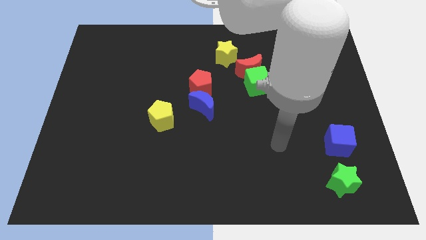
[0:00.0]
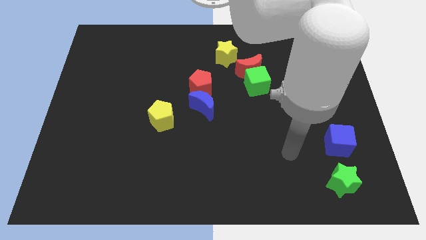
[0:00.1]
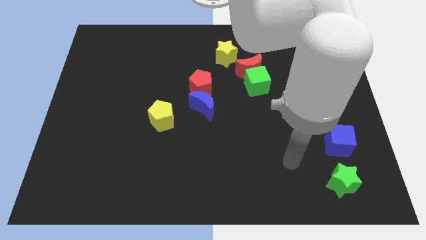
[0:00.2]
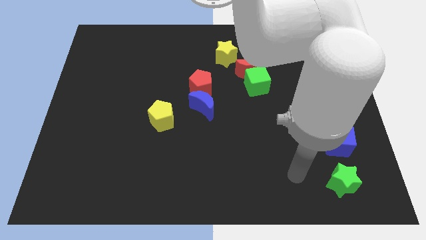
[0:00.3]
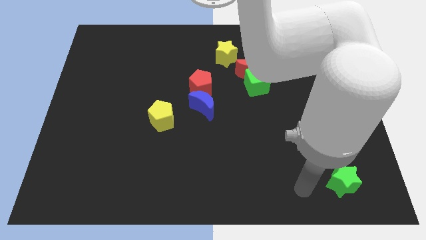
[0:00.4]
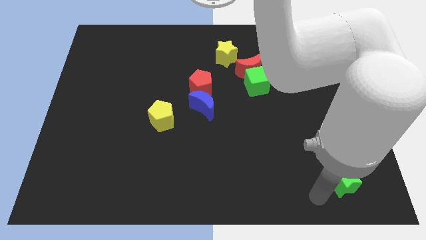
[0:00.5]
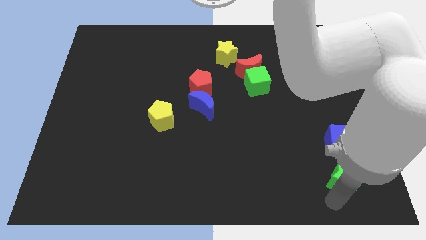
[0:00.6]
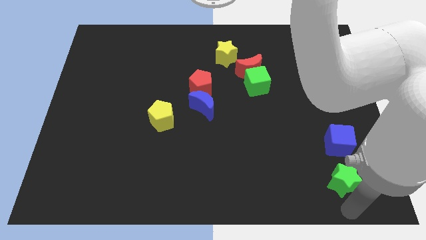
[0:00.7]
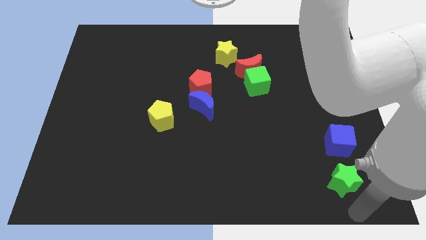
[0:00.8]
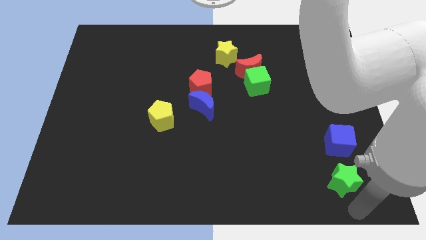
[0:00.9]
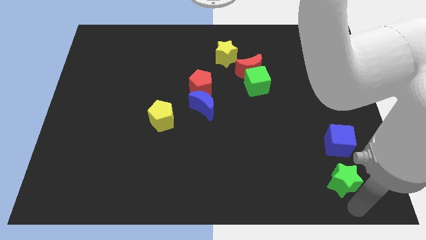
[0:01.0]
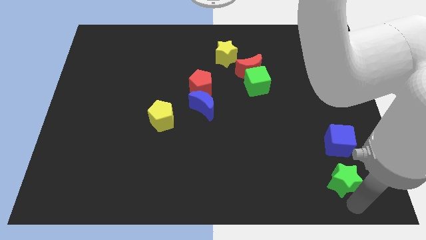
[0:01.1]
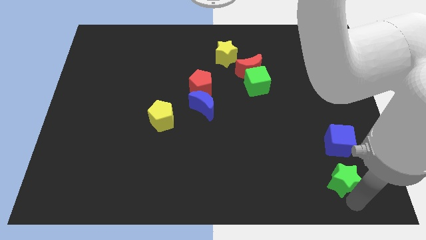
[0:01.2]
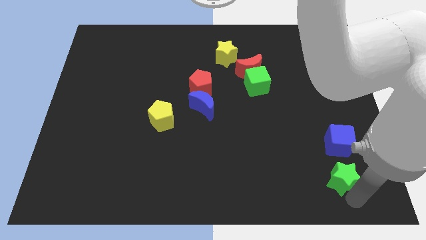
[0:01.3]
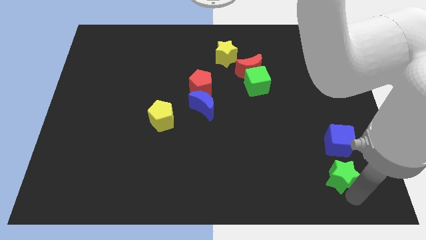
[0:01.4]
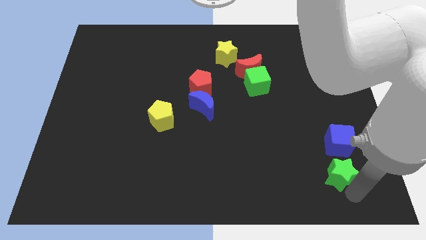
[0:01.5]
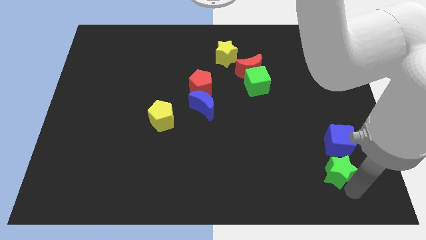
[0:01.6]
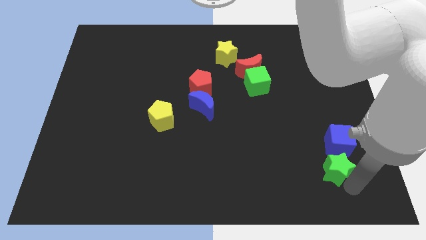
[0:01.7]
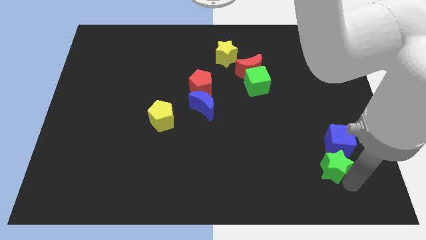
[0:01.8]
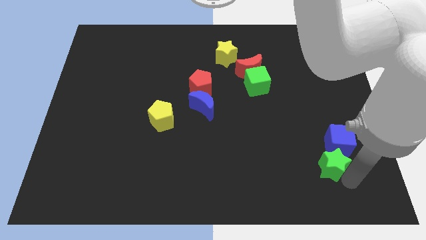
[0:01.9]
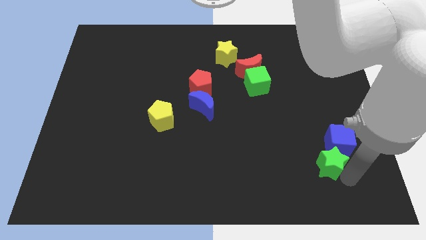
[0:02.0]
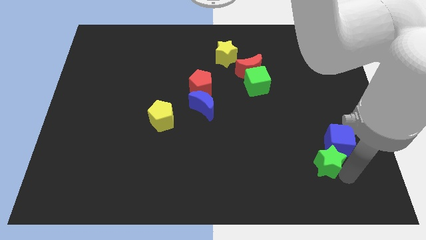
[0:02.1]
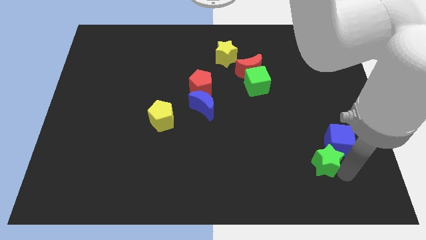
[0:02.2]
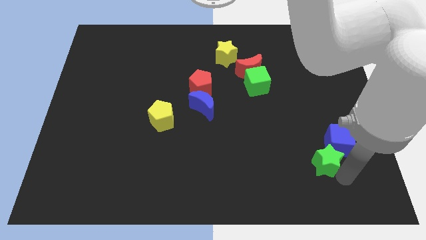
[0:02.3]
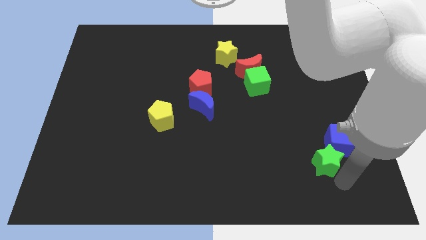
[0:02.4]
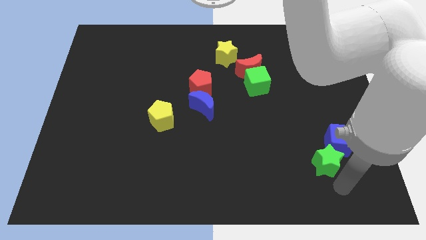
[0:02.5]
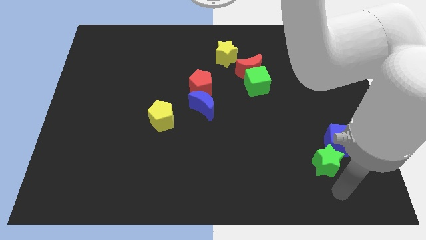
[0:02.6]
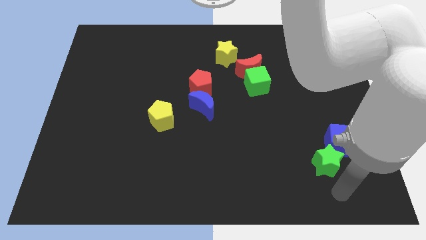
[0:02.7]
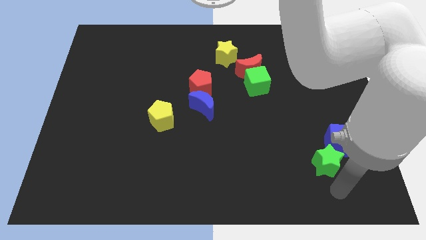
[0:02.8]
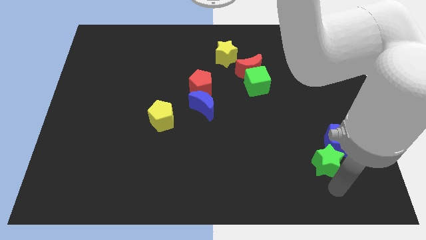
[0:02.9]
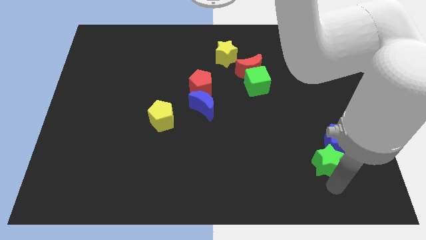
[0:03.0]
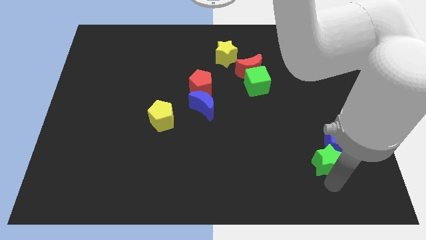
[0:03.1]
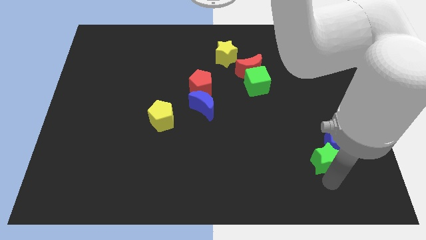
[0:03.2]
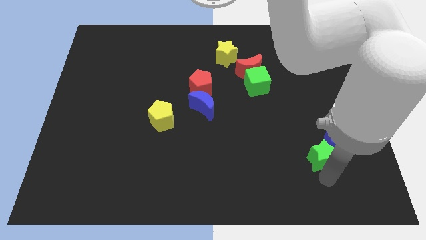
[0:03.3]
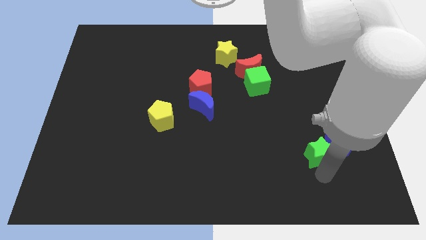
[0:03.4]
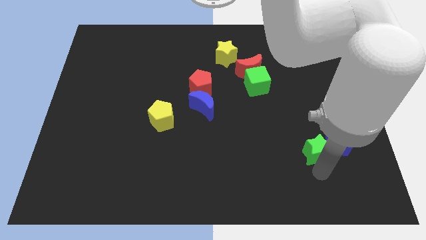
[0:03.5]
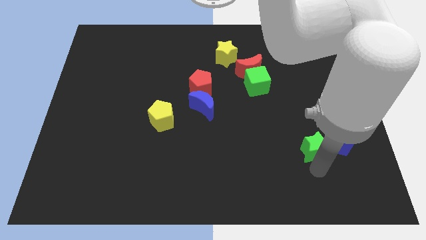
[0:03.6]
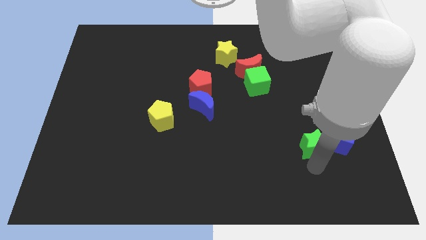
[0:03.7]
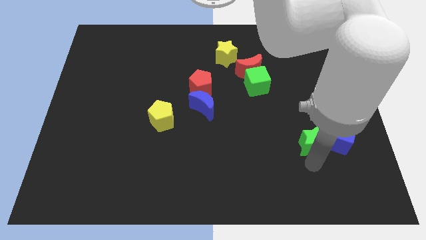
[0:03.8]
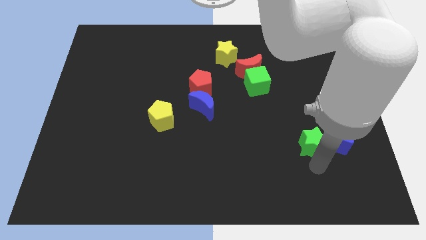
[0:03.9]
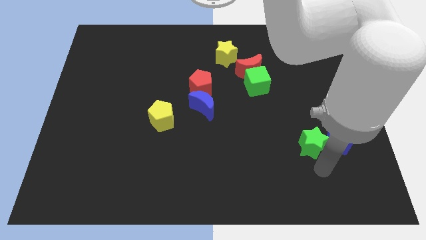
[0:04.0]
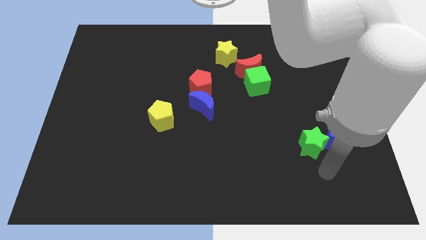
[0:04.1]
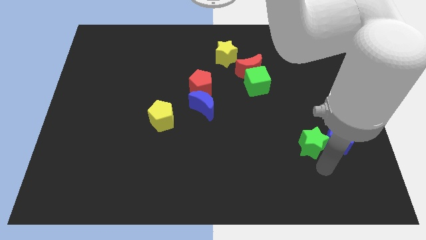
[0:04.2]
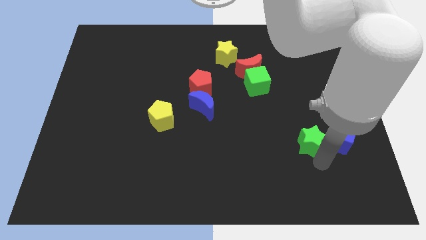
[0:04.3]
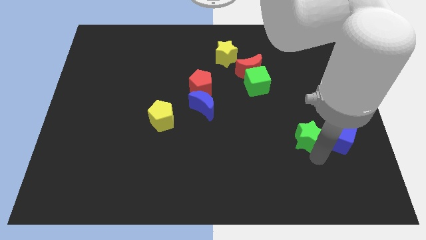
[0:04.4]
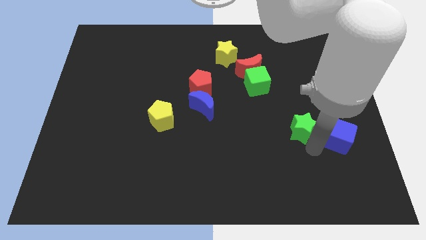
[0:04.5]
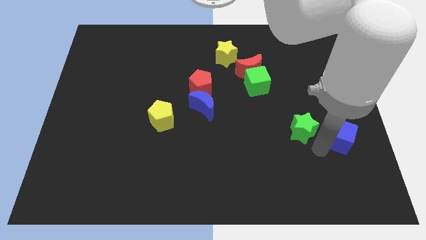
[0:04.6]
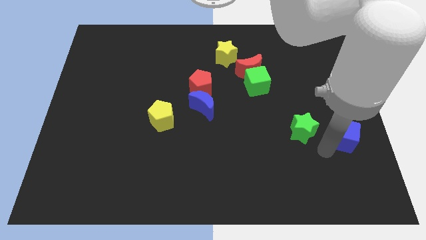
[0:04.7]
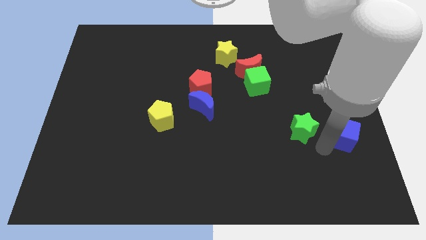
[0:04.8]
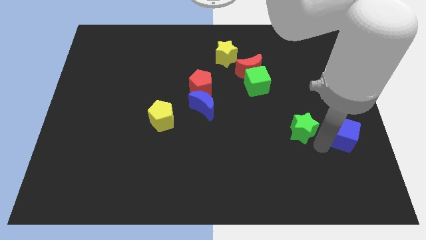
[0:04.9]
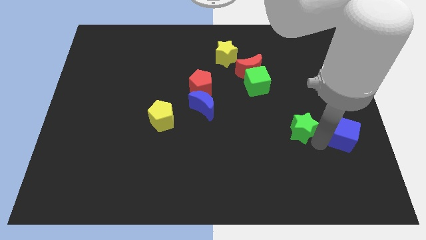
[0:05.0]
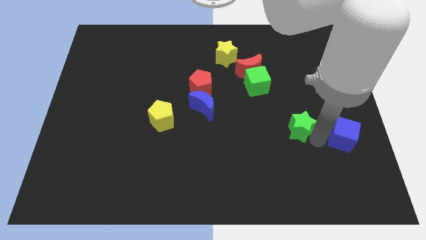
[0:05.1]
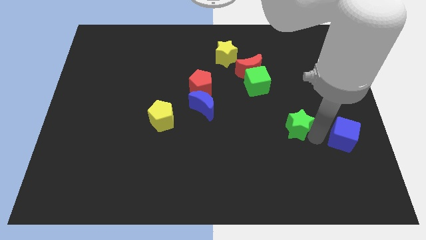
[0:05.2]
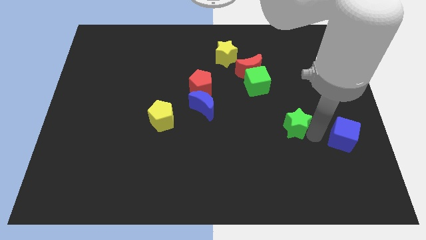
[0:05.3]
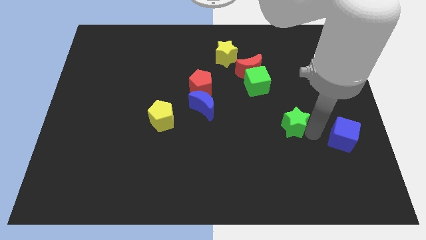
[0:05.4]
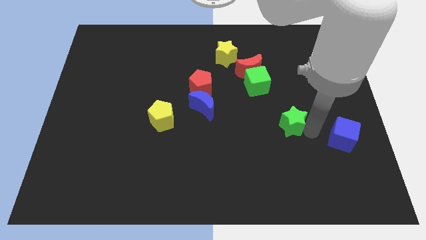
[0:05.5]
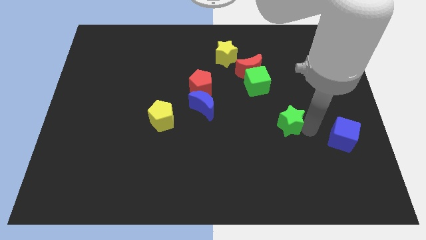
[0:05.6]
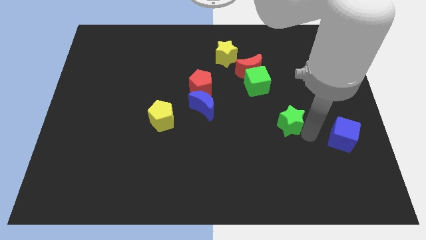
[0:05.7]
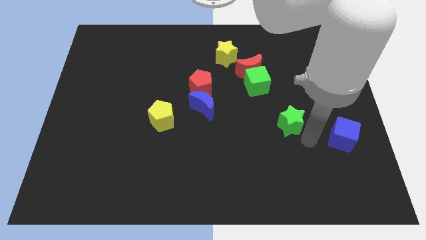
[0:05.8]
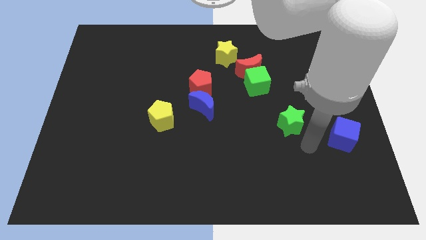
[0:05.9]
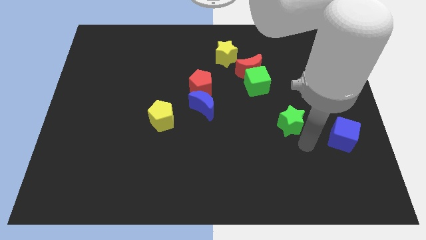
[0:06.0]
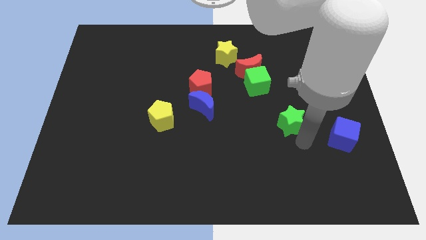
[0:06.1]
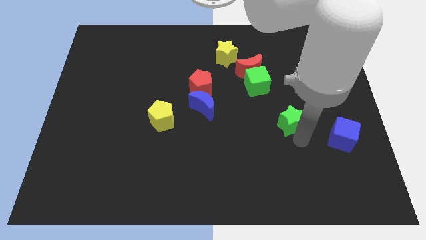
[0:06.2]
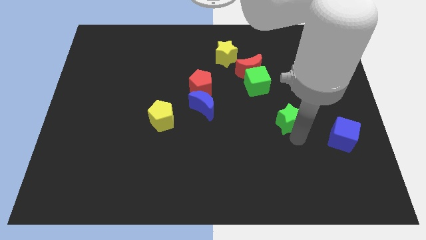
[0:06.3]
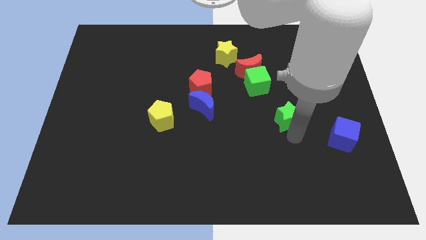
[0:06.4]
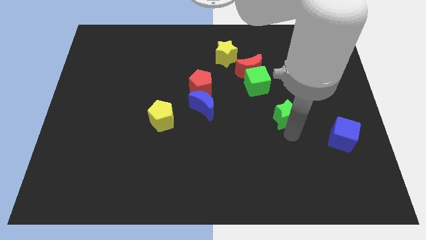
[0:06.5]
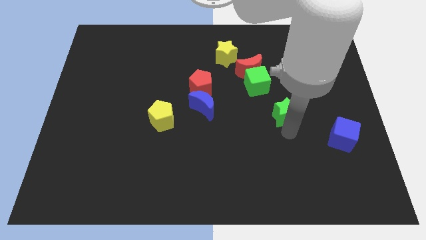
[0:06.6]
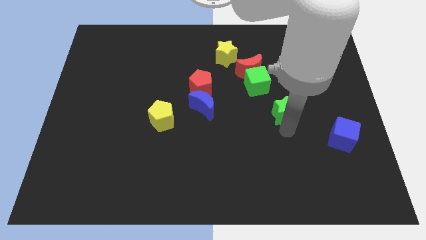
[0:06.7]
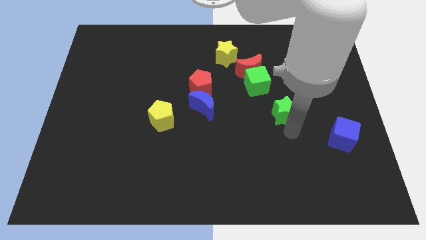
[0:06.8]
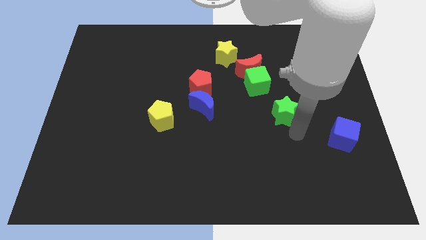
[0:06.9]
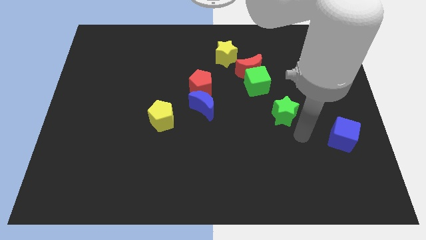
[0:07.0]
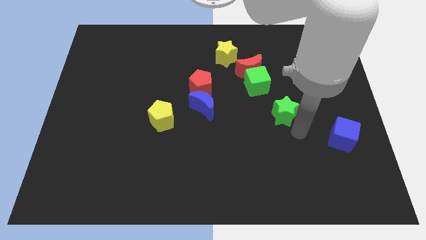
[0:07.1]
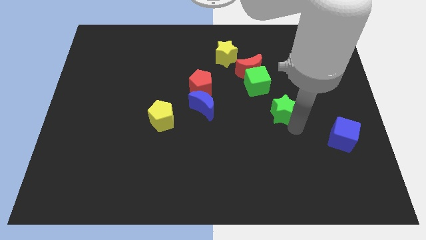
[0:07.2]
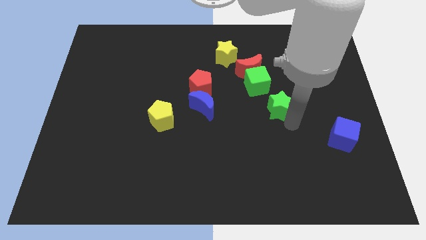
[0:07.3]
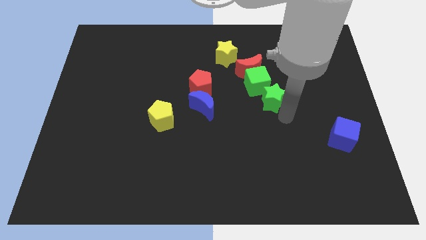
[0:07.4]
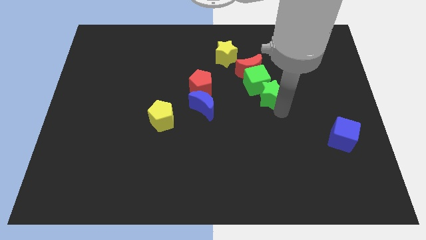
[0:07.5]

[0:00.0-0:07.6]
move the green star to the green cube
